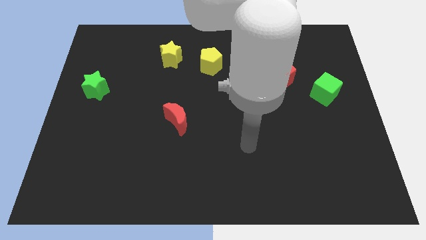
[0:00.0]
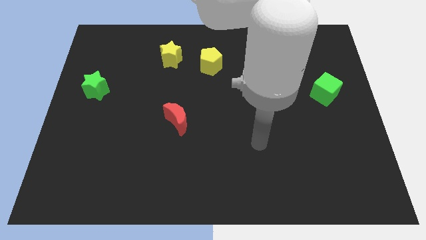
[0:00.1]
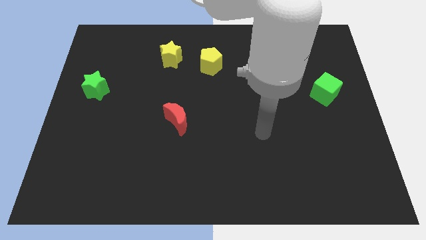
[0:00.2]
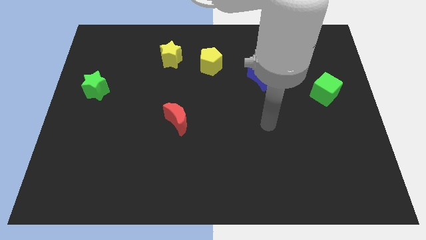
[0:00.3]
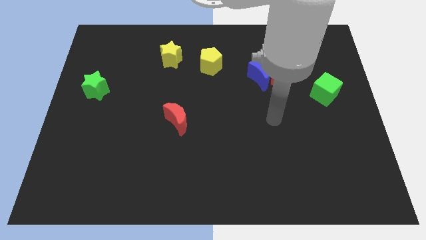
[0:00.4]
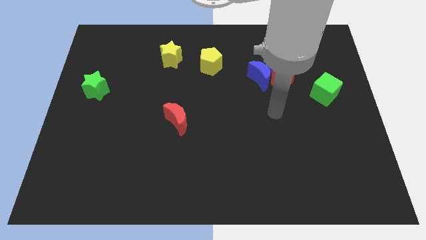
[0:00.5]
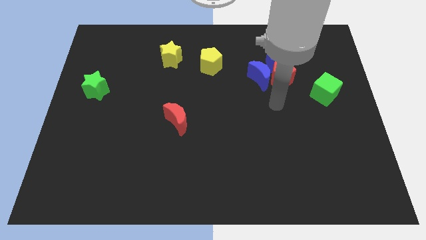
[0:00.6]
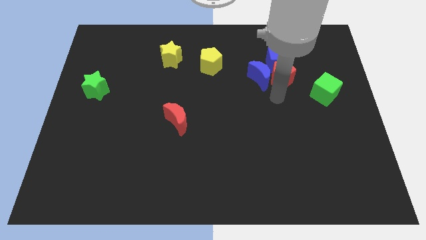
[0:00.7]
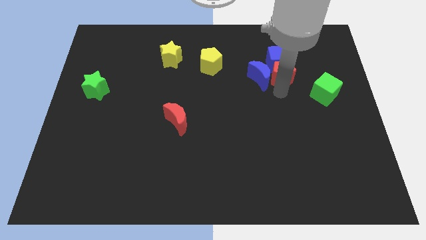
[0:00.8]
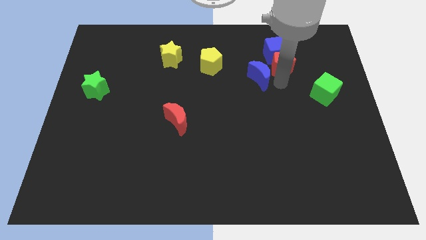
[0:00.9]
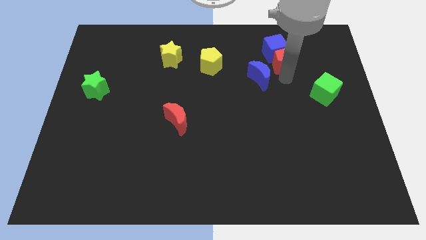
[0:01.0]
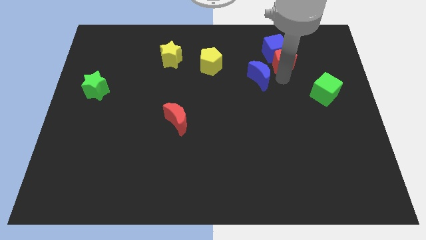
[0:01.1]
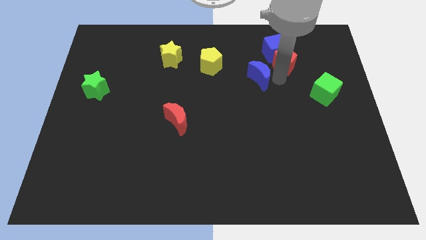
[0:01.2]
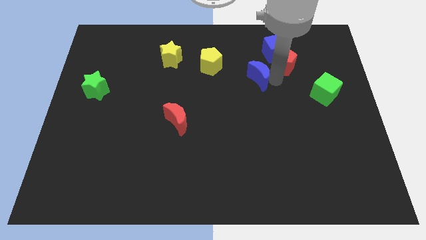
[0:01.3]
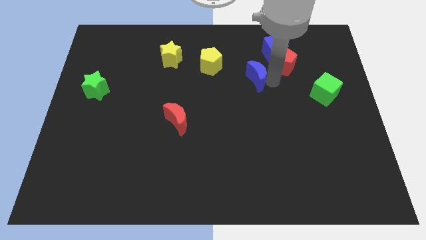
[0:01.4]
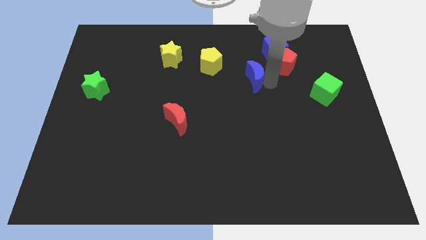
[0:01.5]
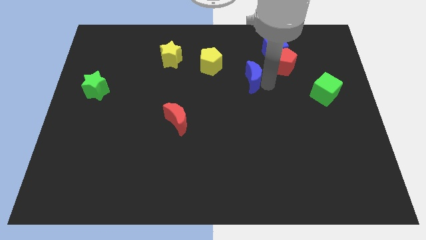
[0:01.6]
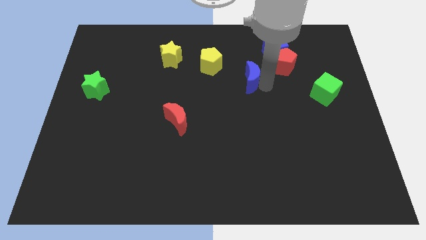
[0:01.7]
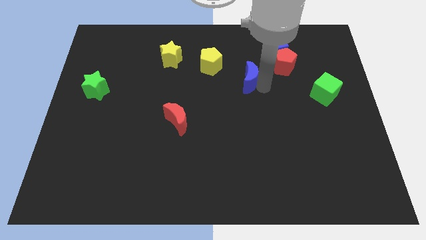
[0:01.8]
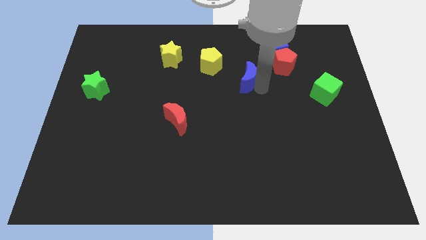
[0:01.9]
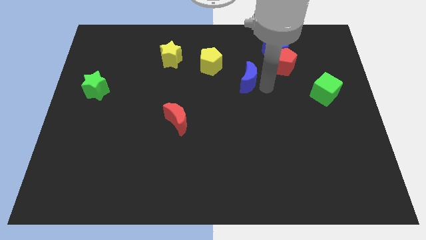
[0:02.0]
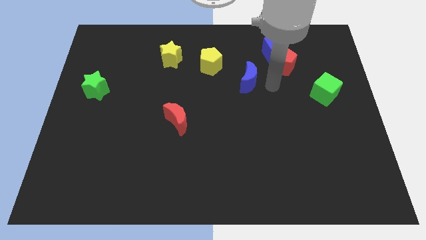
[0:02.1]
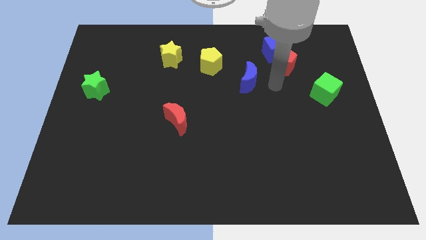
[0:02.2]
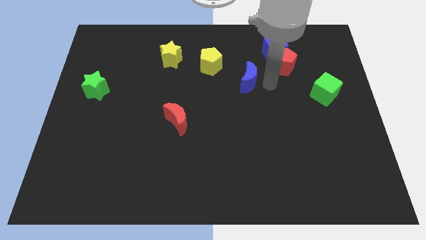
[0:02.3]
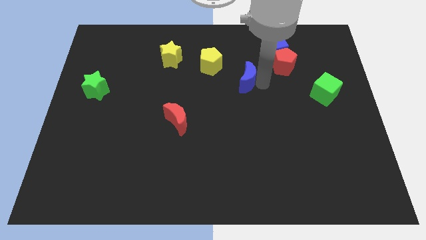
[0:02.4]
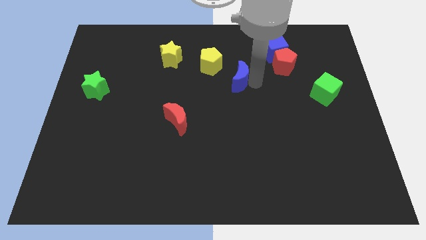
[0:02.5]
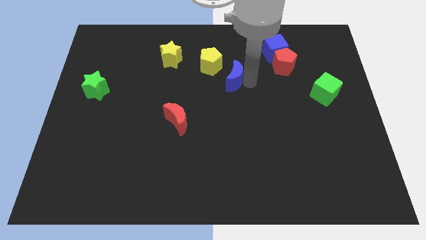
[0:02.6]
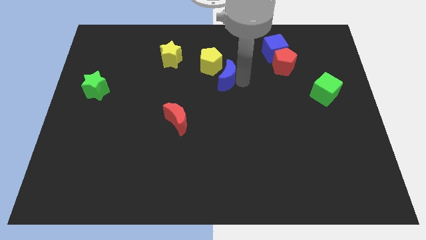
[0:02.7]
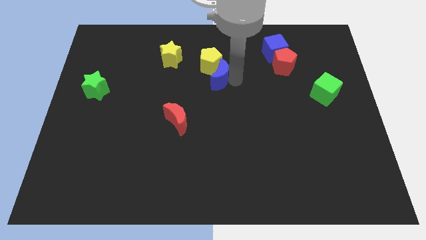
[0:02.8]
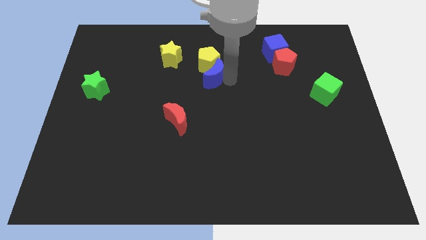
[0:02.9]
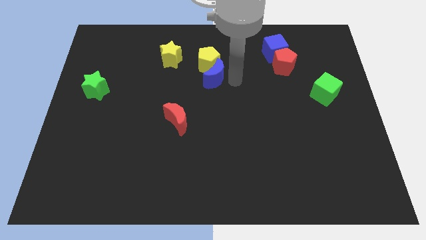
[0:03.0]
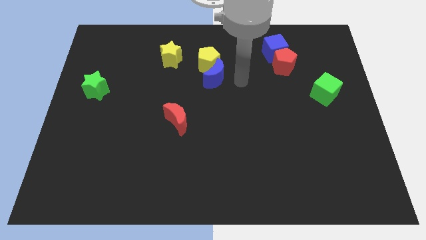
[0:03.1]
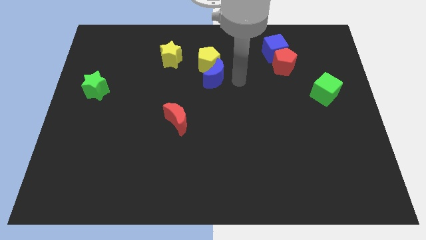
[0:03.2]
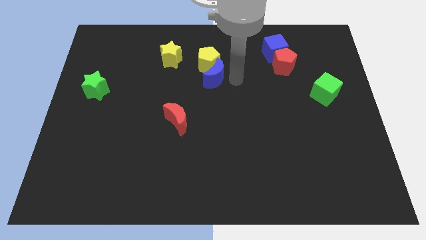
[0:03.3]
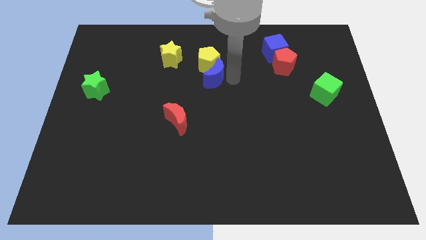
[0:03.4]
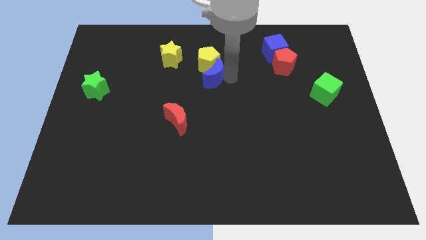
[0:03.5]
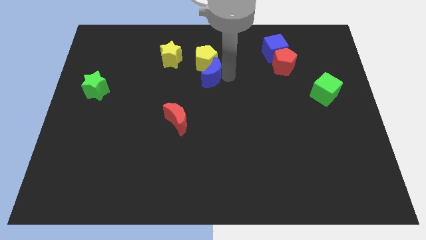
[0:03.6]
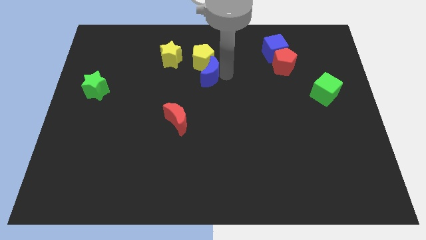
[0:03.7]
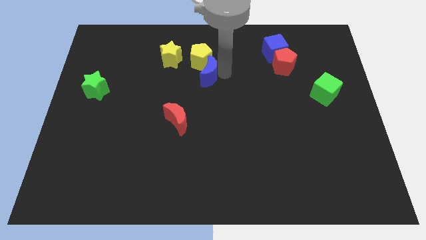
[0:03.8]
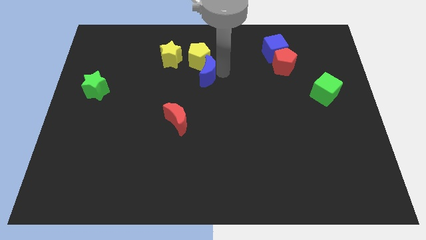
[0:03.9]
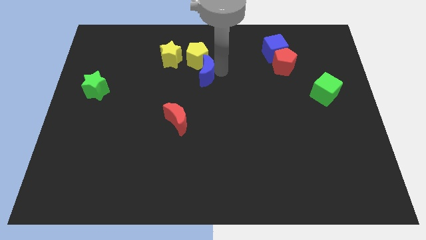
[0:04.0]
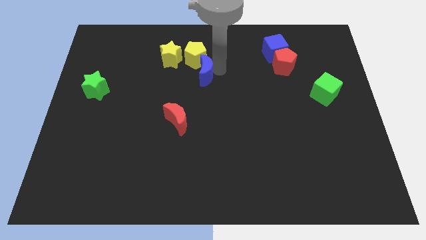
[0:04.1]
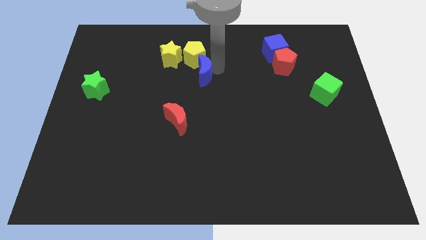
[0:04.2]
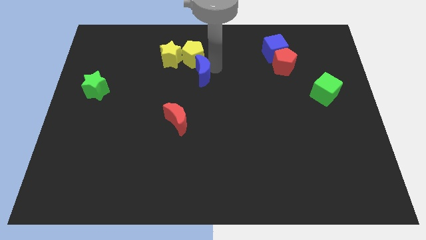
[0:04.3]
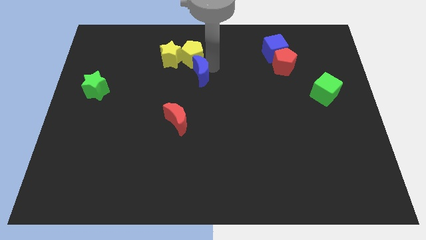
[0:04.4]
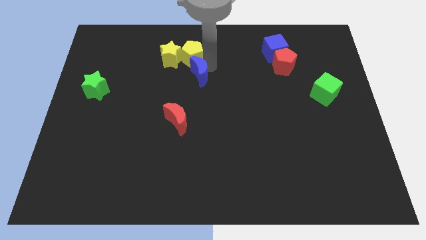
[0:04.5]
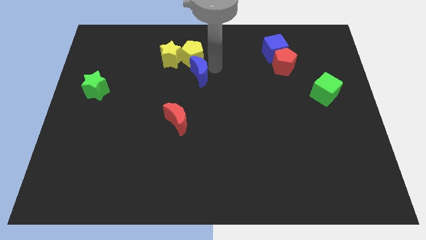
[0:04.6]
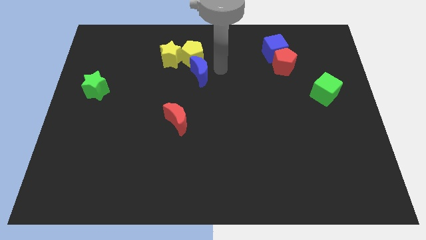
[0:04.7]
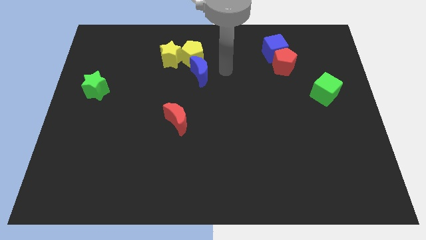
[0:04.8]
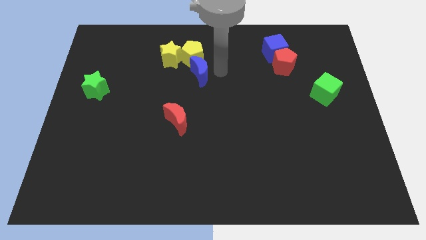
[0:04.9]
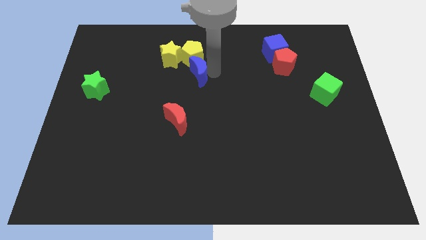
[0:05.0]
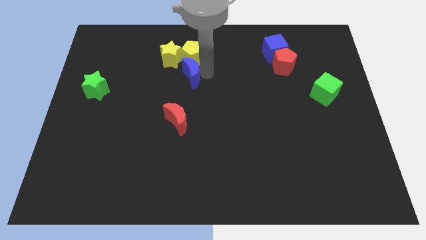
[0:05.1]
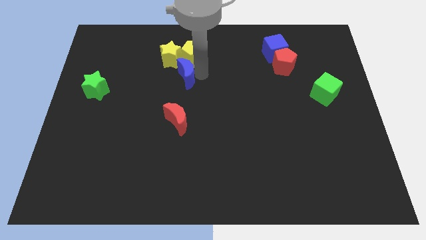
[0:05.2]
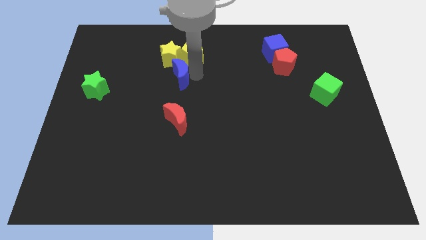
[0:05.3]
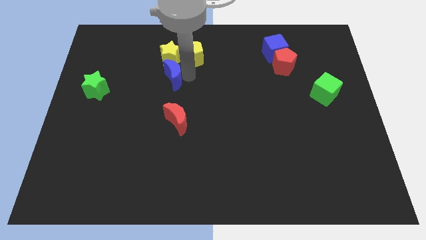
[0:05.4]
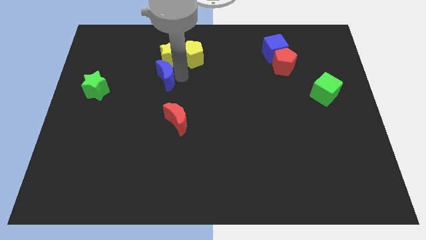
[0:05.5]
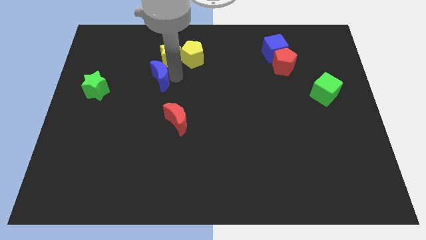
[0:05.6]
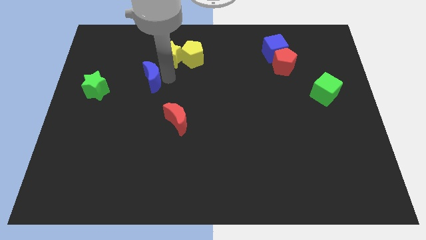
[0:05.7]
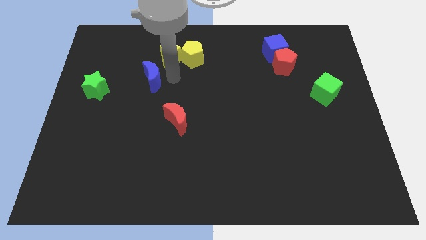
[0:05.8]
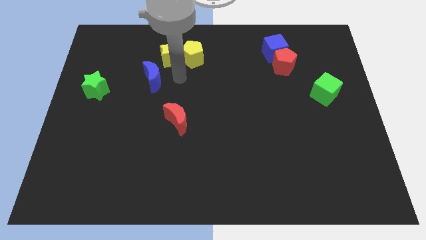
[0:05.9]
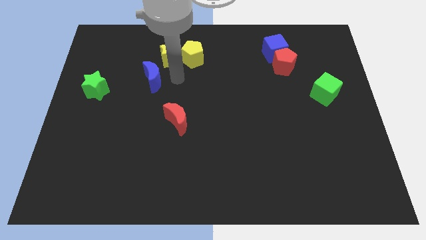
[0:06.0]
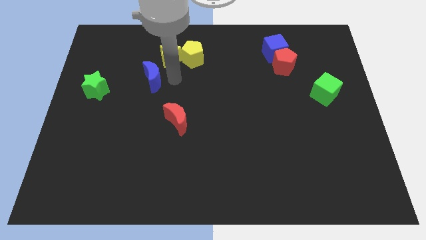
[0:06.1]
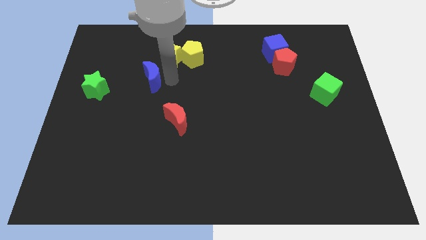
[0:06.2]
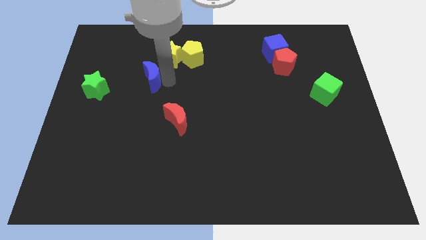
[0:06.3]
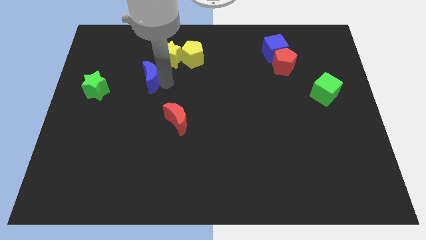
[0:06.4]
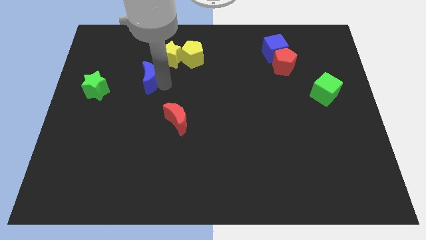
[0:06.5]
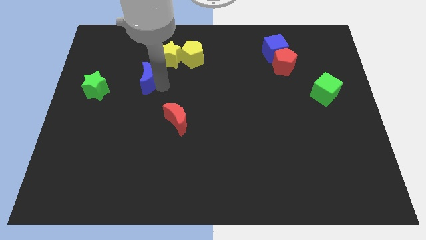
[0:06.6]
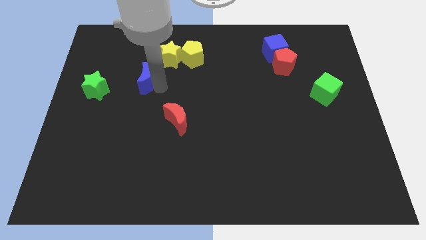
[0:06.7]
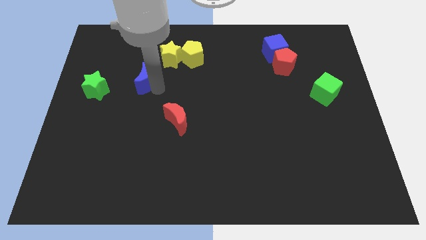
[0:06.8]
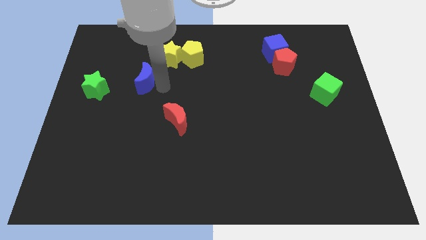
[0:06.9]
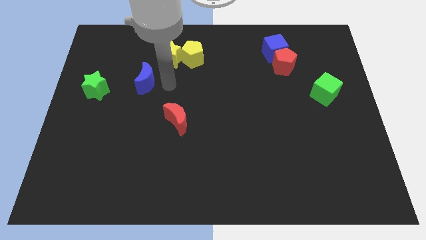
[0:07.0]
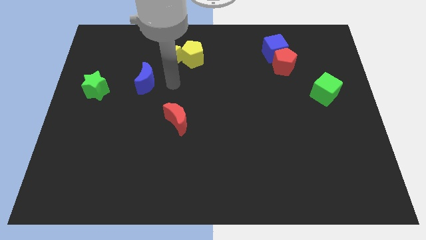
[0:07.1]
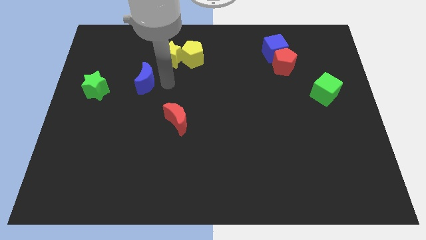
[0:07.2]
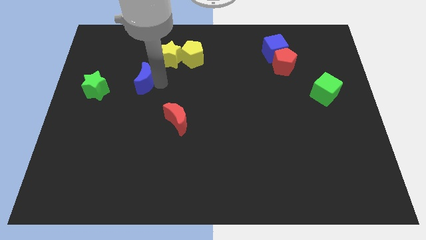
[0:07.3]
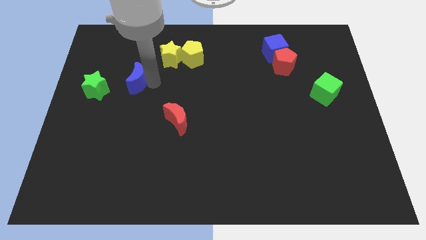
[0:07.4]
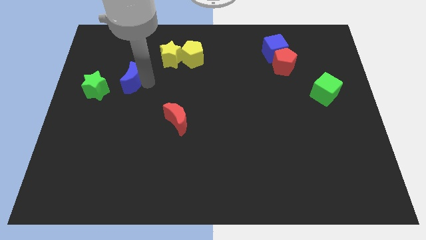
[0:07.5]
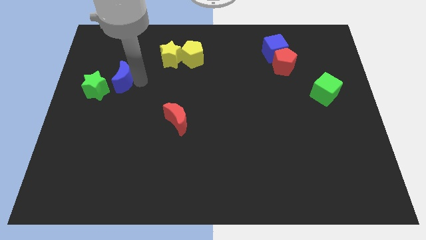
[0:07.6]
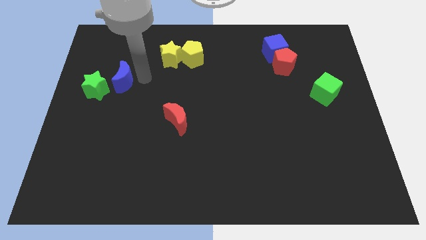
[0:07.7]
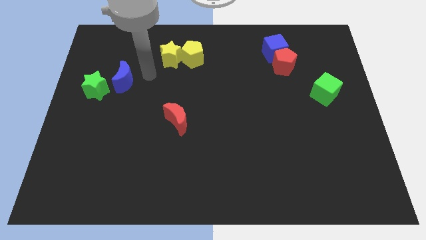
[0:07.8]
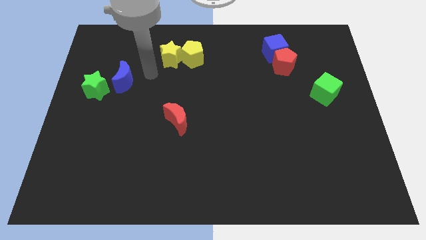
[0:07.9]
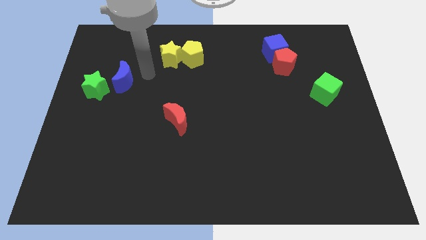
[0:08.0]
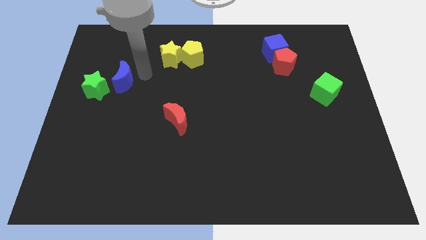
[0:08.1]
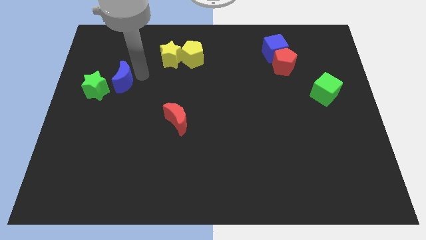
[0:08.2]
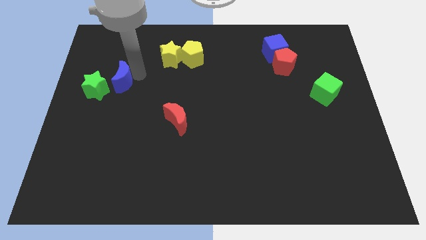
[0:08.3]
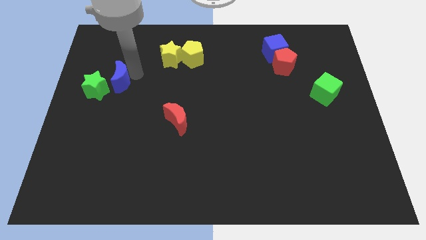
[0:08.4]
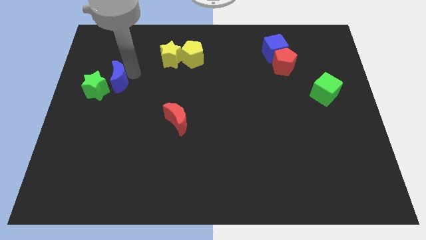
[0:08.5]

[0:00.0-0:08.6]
push the blue moon towards the green star
